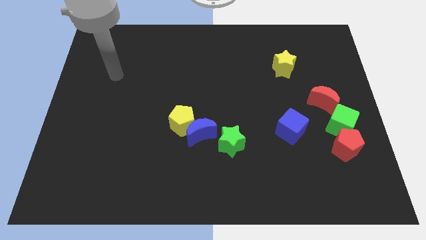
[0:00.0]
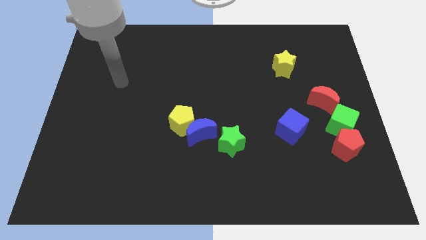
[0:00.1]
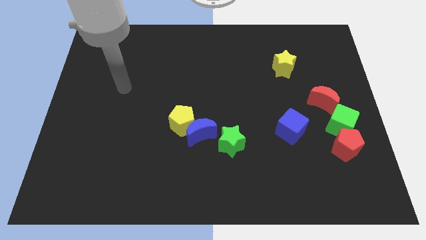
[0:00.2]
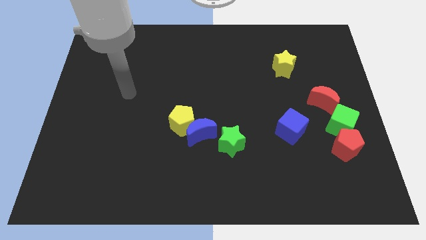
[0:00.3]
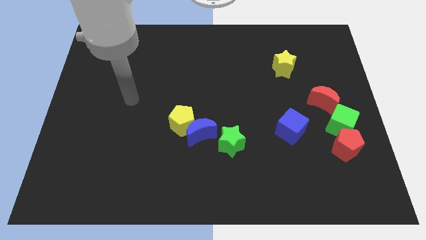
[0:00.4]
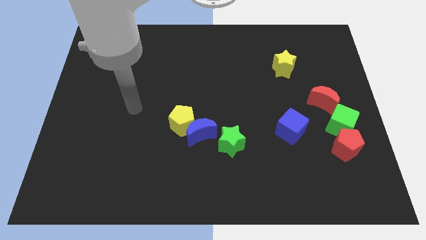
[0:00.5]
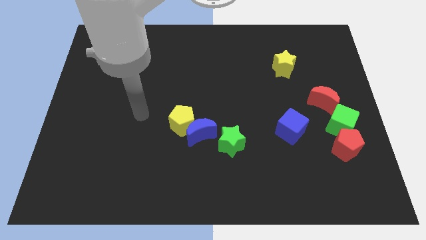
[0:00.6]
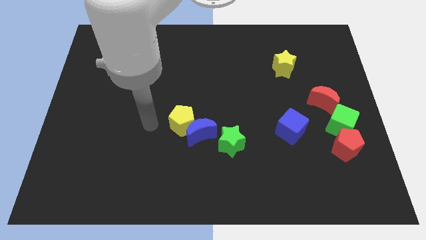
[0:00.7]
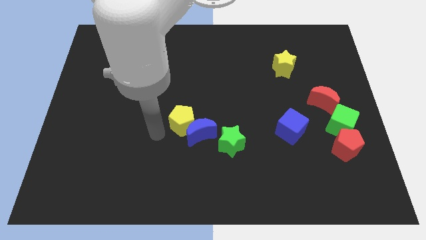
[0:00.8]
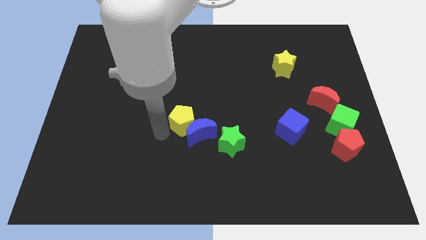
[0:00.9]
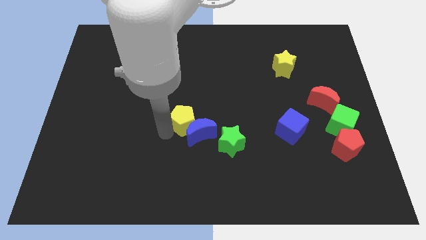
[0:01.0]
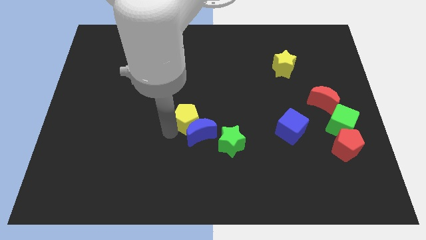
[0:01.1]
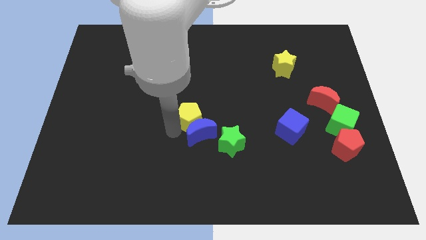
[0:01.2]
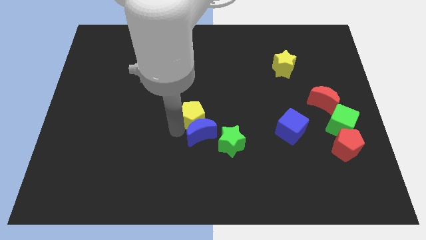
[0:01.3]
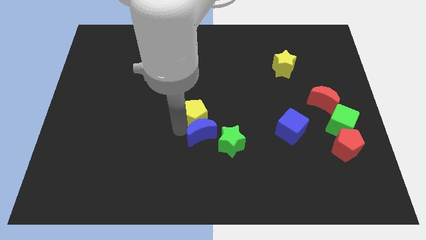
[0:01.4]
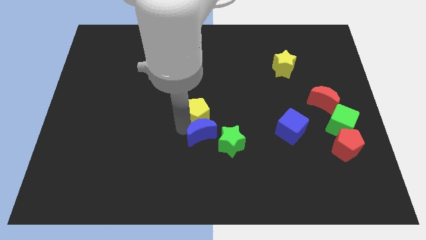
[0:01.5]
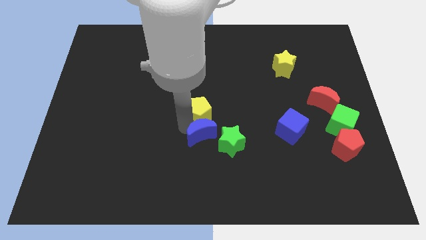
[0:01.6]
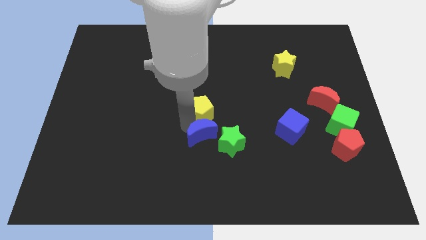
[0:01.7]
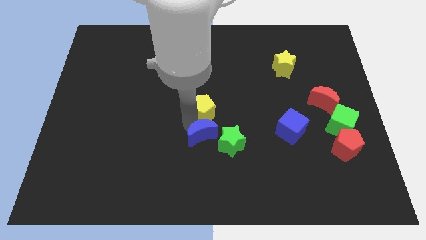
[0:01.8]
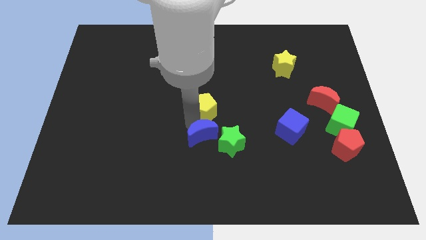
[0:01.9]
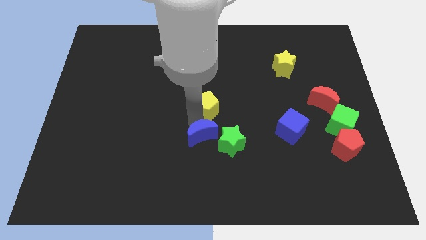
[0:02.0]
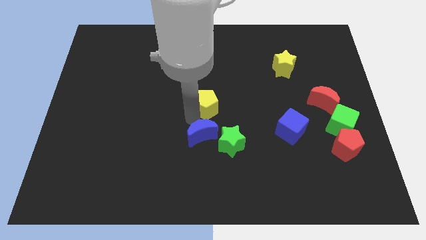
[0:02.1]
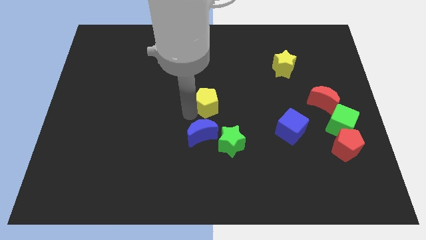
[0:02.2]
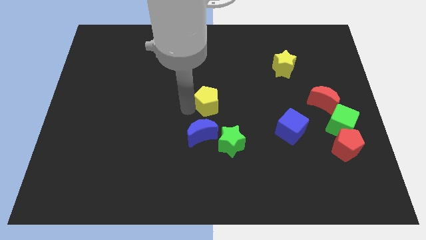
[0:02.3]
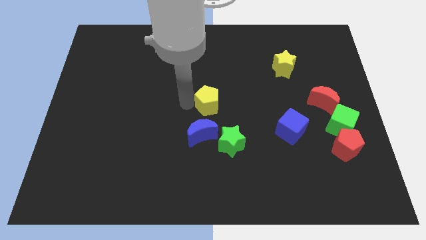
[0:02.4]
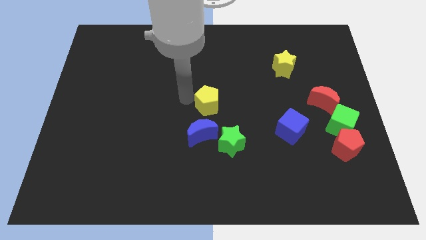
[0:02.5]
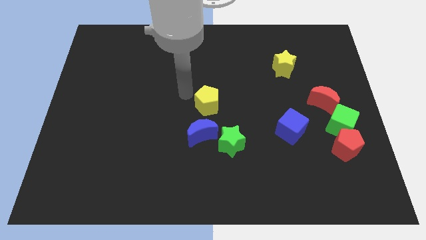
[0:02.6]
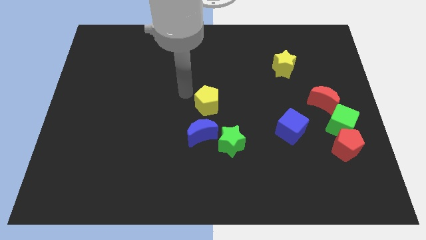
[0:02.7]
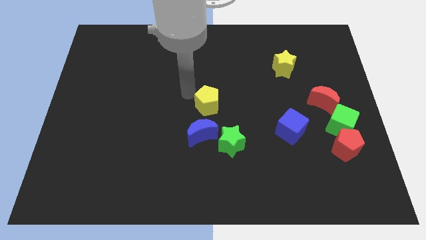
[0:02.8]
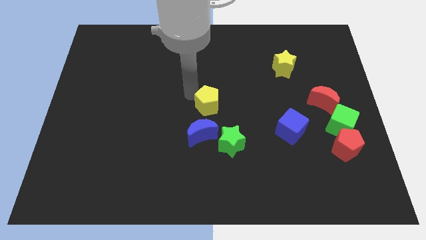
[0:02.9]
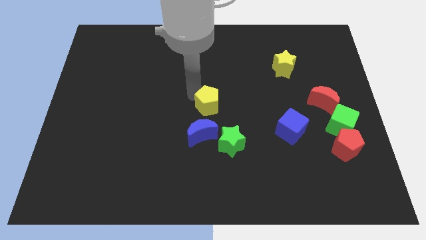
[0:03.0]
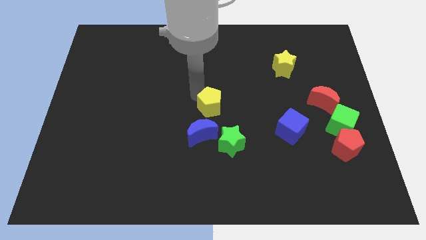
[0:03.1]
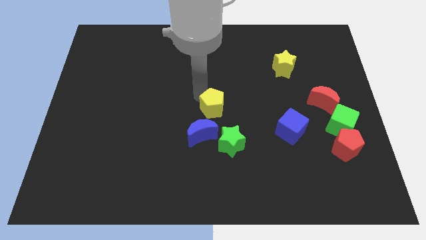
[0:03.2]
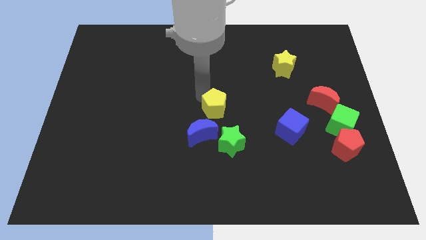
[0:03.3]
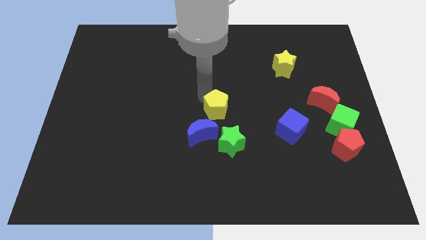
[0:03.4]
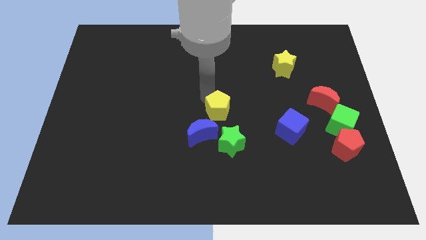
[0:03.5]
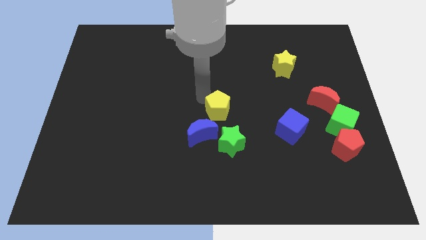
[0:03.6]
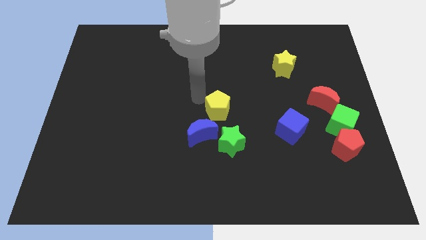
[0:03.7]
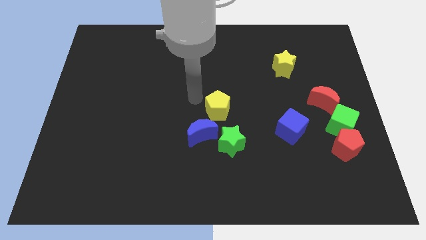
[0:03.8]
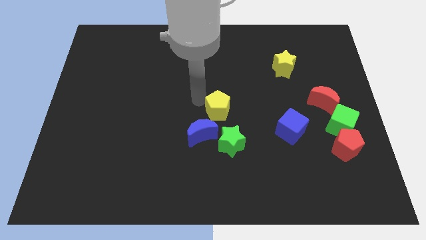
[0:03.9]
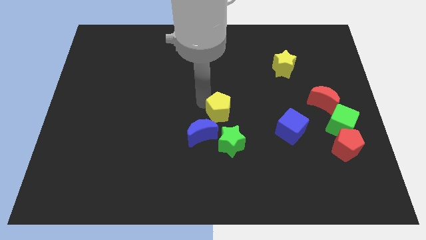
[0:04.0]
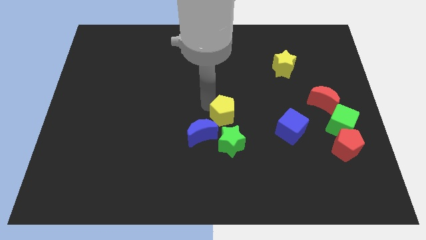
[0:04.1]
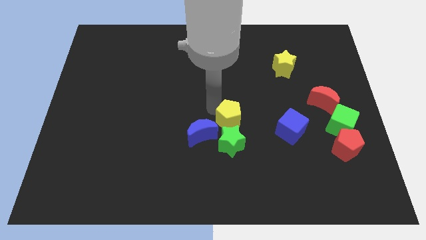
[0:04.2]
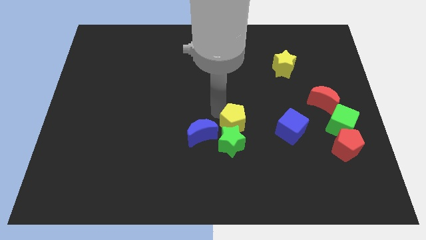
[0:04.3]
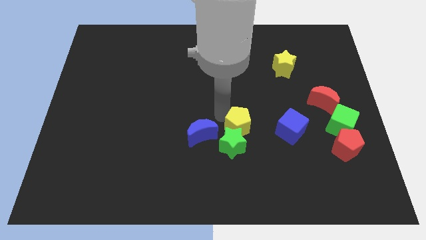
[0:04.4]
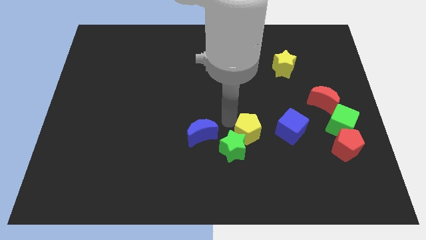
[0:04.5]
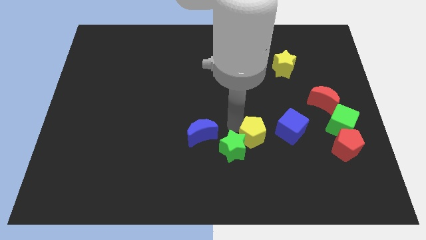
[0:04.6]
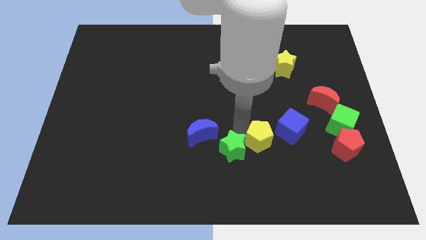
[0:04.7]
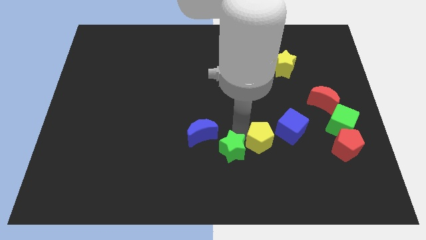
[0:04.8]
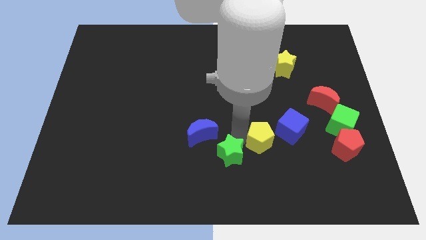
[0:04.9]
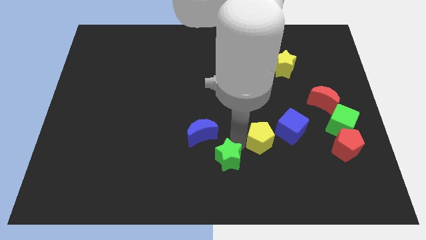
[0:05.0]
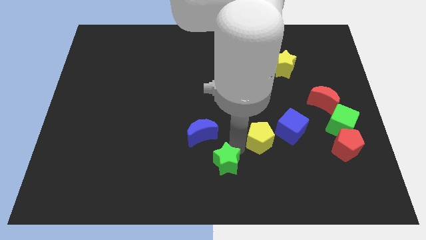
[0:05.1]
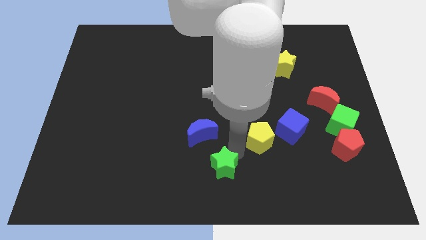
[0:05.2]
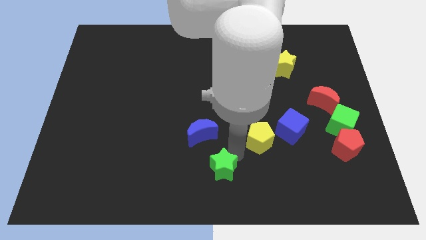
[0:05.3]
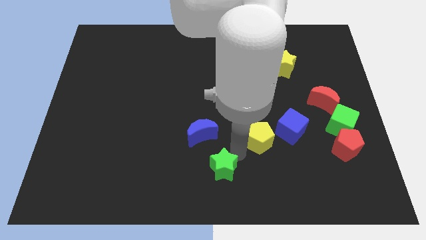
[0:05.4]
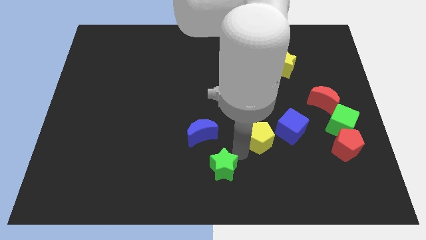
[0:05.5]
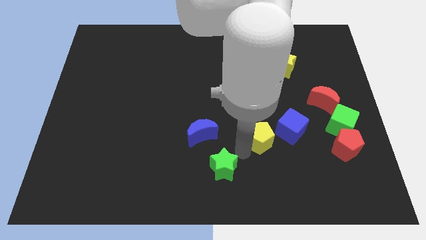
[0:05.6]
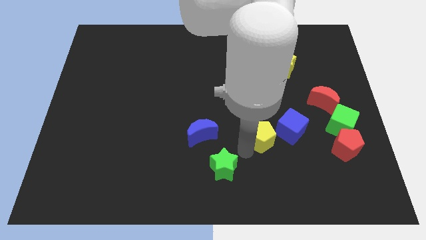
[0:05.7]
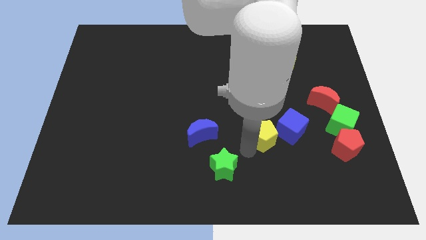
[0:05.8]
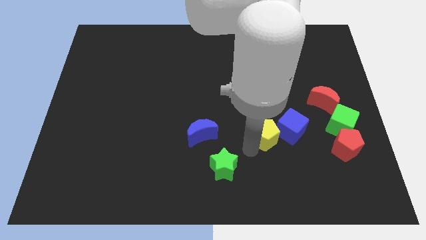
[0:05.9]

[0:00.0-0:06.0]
slide the yellow pentagon towards the blue cube
